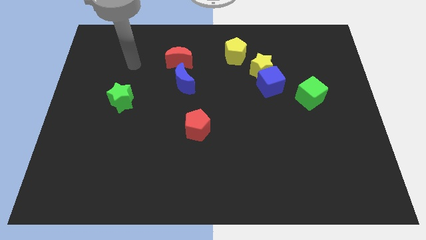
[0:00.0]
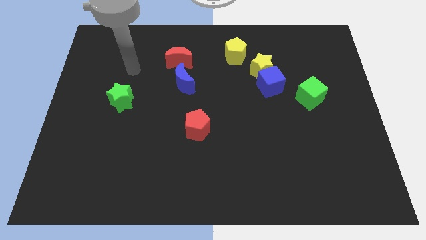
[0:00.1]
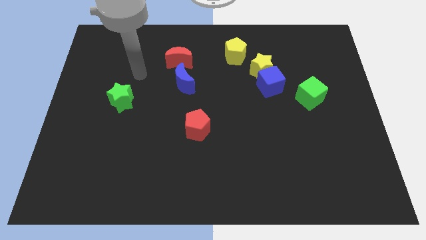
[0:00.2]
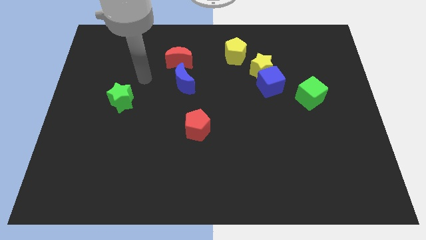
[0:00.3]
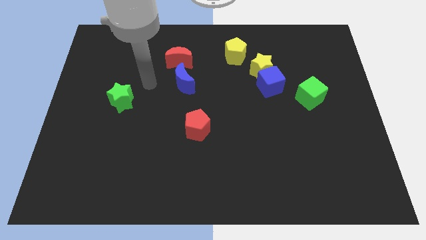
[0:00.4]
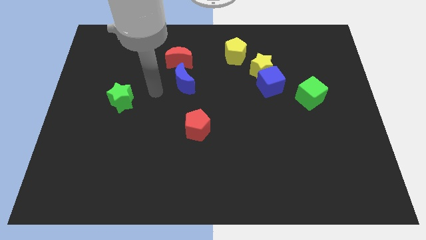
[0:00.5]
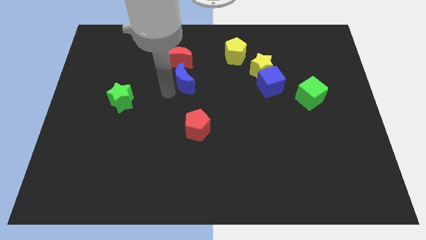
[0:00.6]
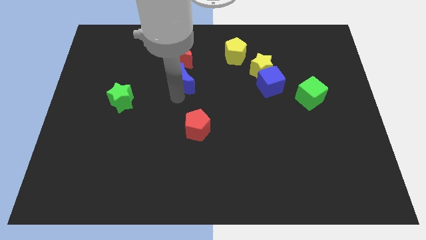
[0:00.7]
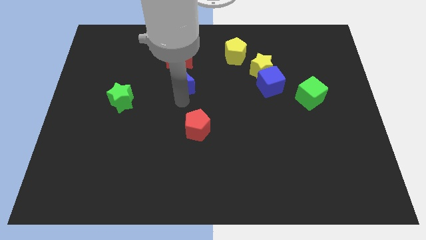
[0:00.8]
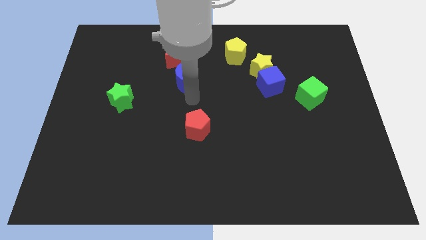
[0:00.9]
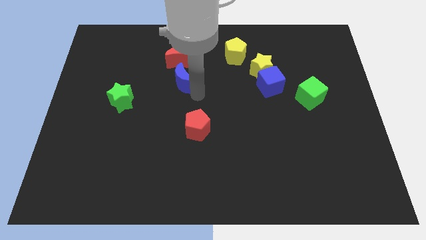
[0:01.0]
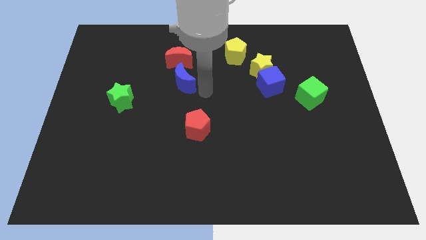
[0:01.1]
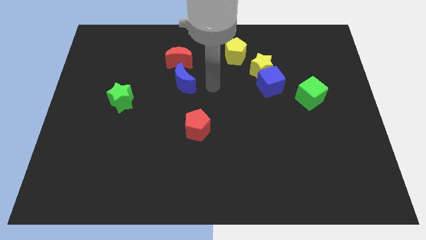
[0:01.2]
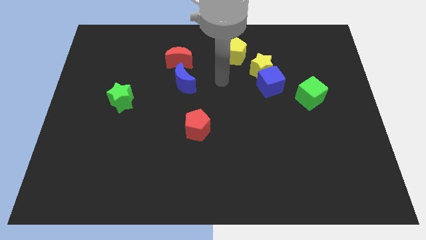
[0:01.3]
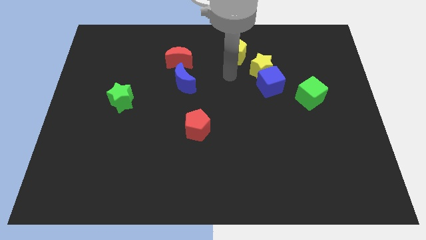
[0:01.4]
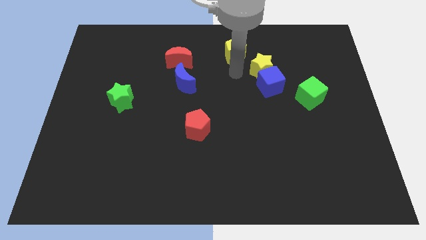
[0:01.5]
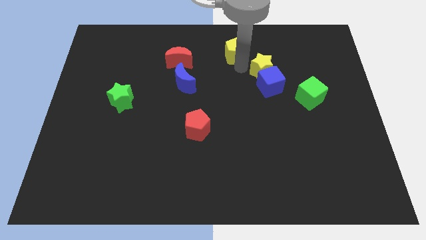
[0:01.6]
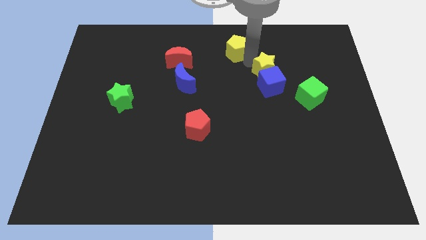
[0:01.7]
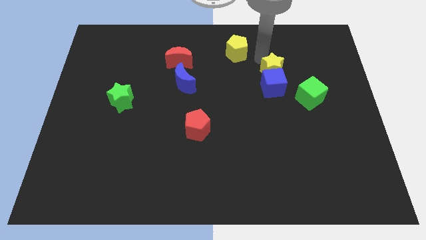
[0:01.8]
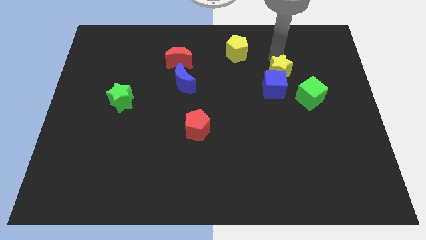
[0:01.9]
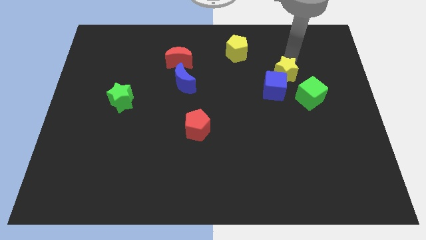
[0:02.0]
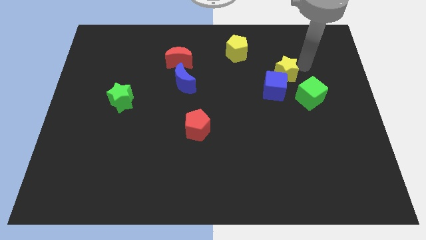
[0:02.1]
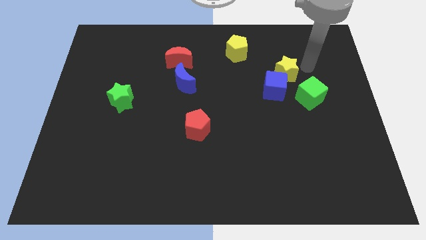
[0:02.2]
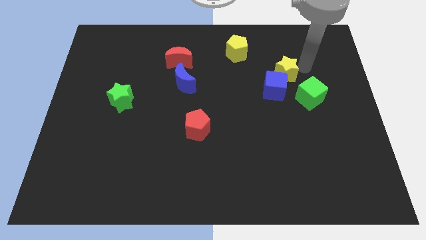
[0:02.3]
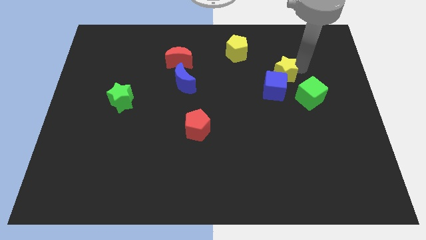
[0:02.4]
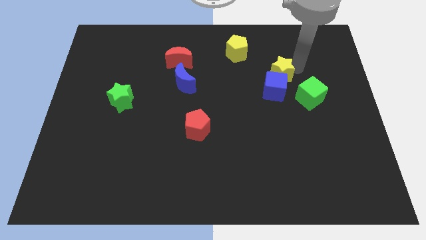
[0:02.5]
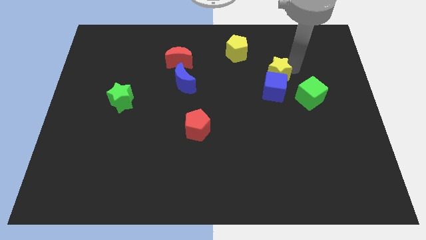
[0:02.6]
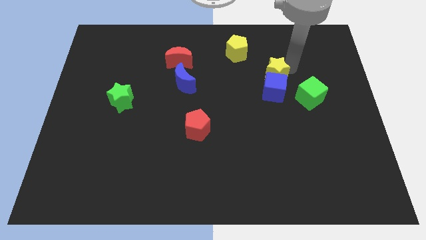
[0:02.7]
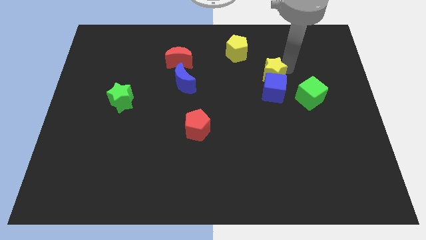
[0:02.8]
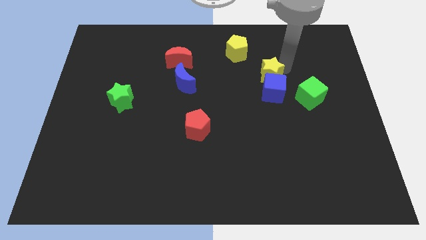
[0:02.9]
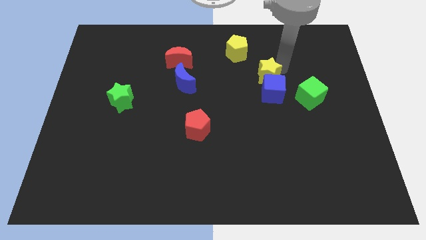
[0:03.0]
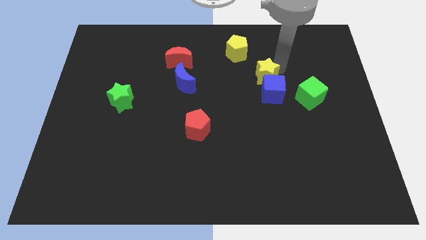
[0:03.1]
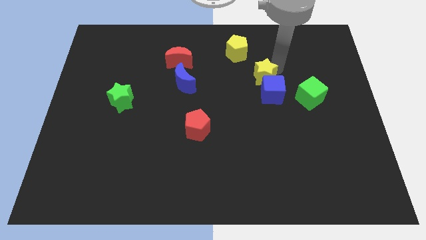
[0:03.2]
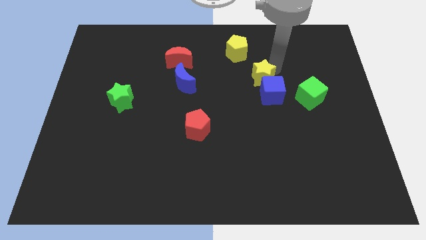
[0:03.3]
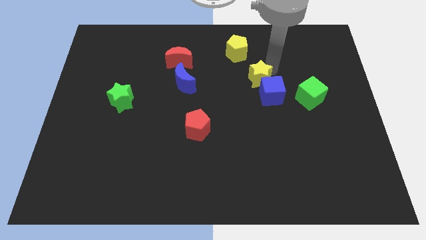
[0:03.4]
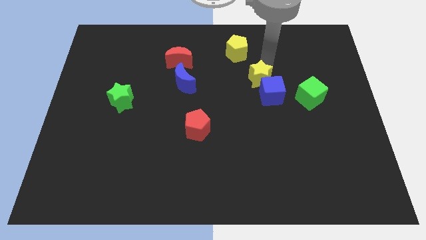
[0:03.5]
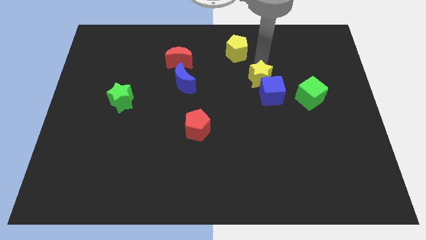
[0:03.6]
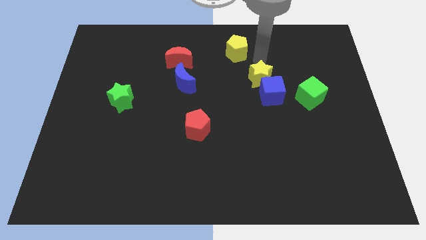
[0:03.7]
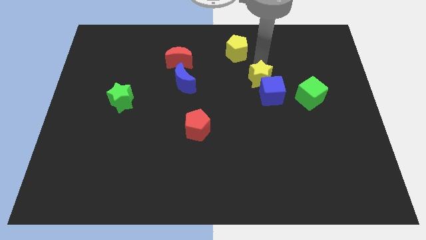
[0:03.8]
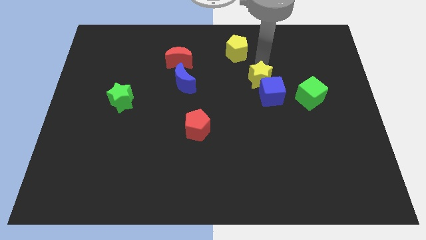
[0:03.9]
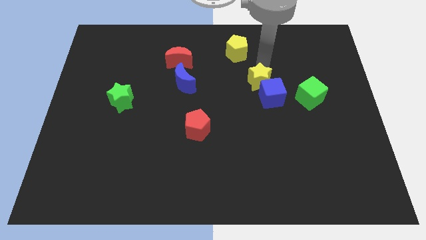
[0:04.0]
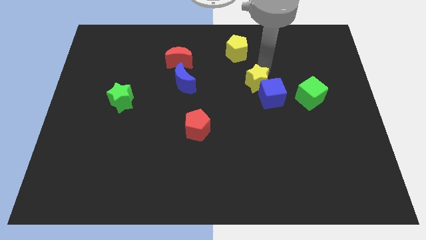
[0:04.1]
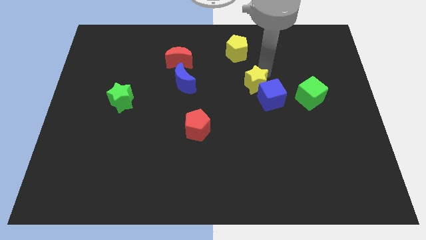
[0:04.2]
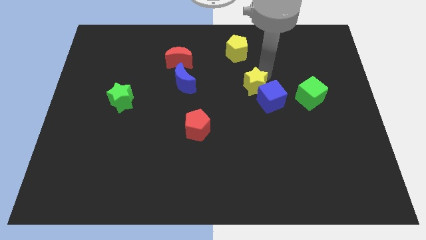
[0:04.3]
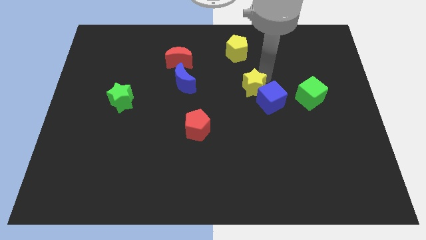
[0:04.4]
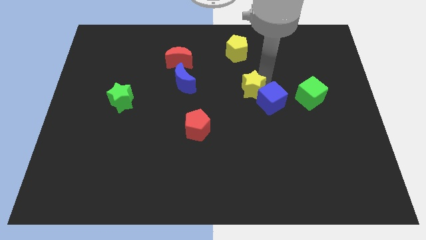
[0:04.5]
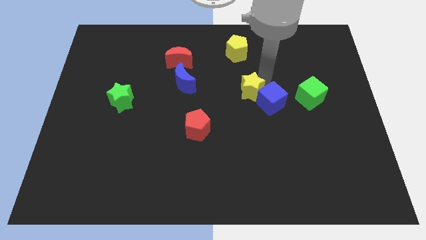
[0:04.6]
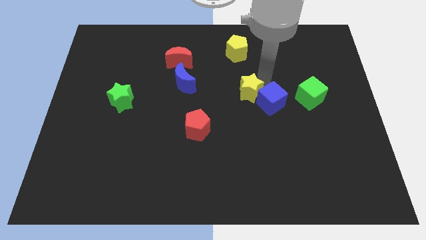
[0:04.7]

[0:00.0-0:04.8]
slide the yellow star a little downwards

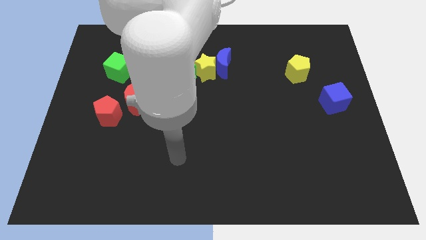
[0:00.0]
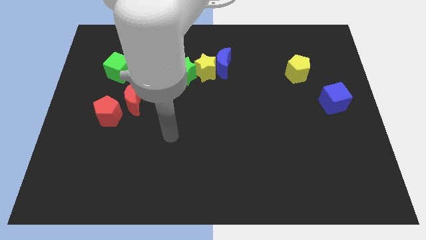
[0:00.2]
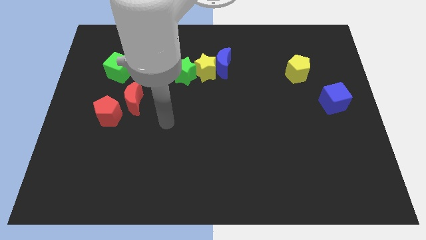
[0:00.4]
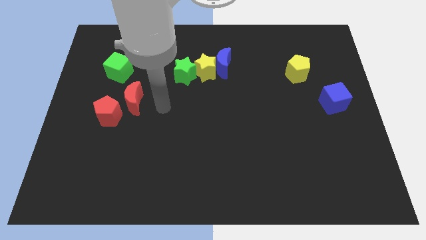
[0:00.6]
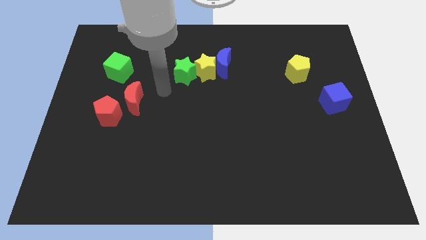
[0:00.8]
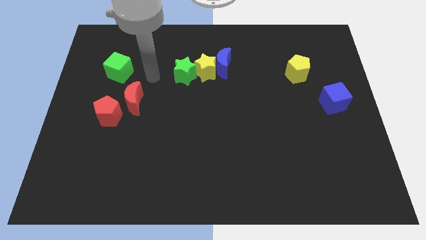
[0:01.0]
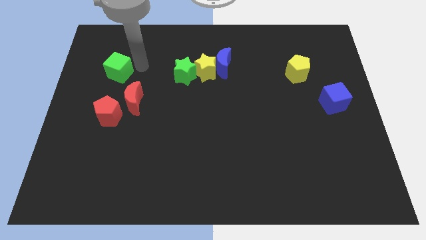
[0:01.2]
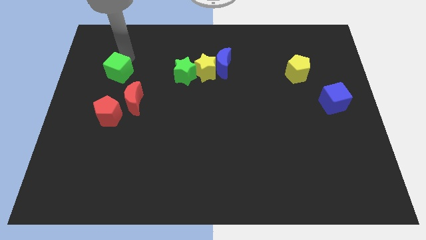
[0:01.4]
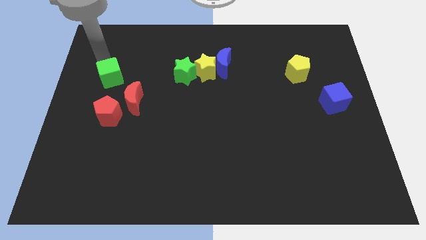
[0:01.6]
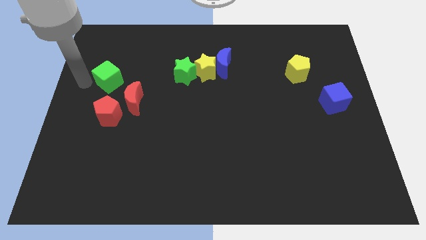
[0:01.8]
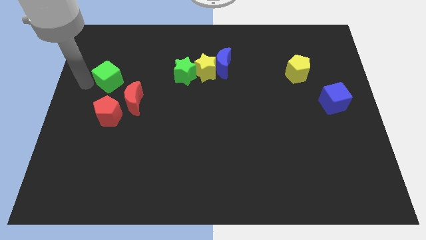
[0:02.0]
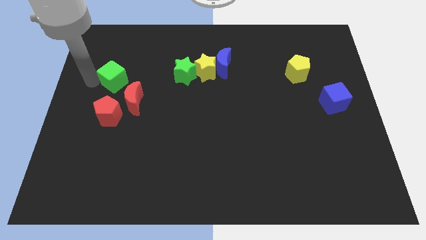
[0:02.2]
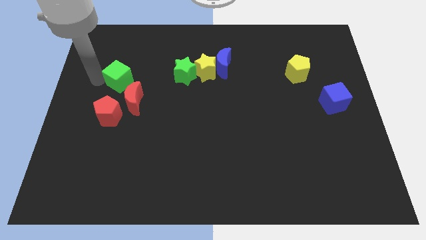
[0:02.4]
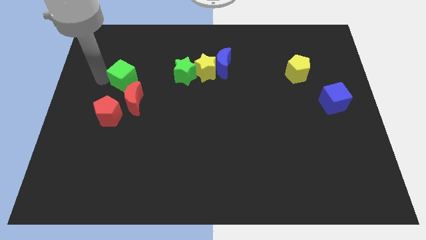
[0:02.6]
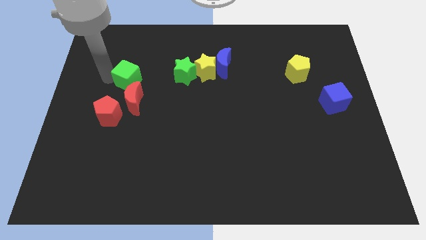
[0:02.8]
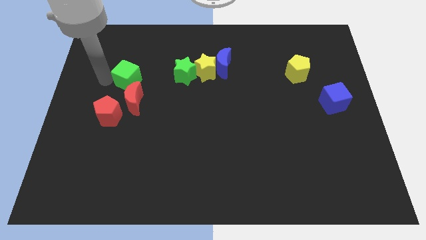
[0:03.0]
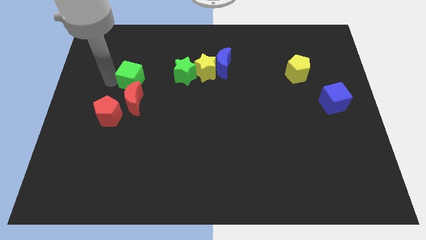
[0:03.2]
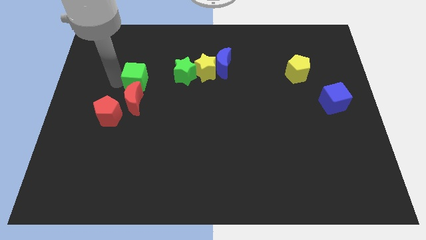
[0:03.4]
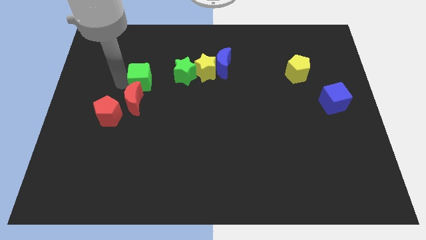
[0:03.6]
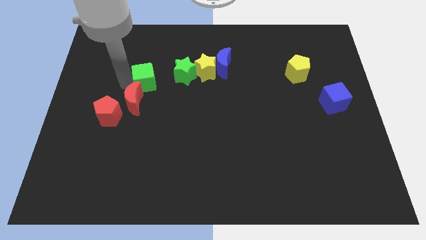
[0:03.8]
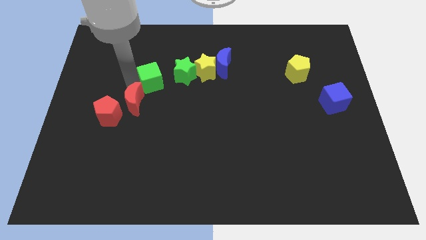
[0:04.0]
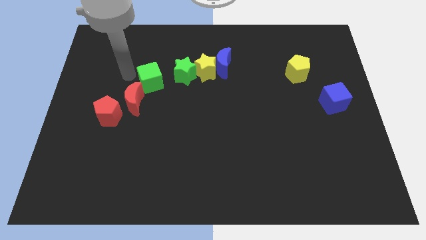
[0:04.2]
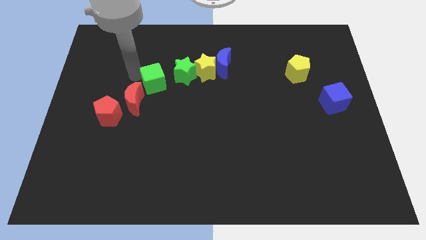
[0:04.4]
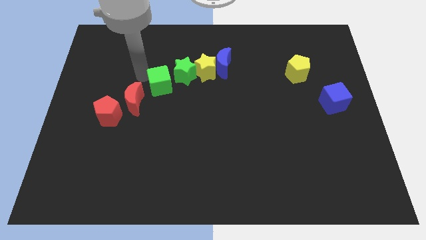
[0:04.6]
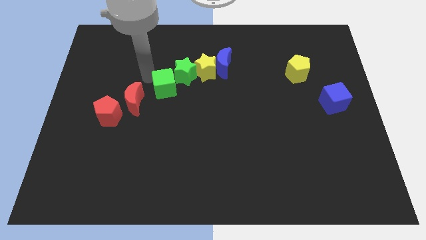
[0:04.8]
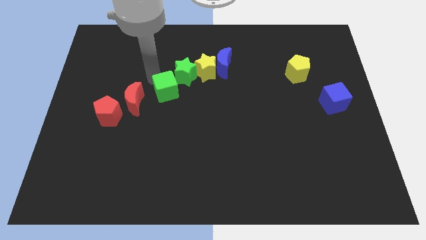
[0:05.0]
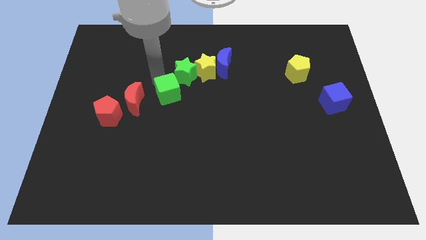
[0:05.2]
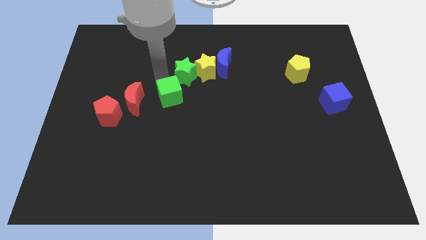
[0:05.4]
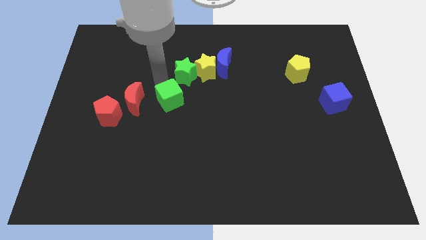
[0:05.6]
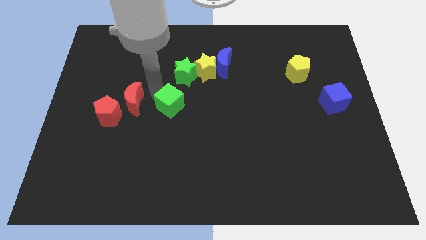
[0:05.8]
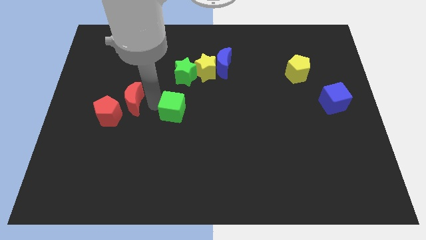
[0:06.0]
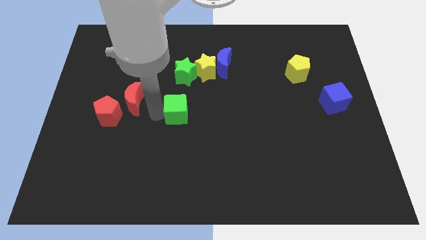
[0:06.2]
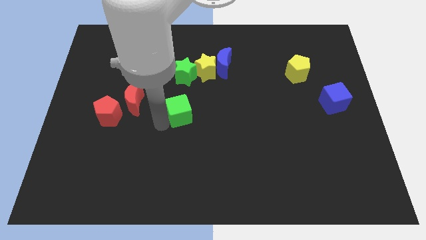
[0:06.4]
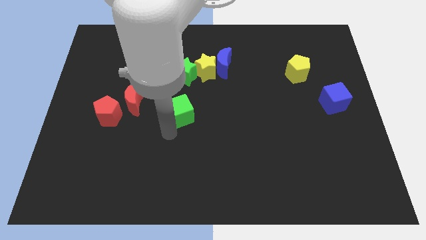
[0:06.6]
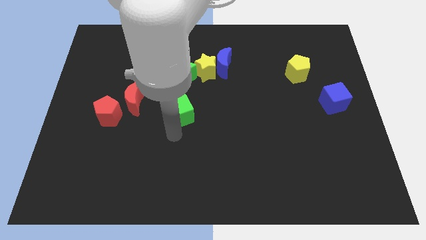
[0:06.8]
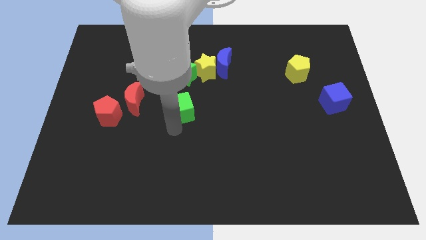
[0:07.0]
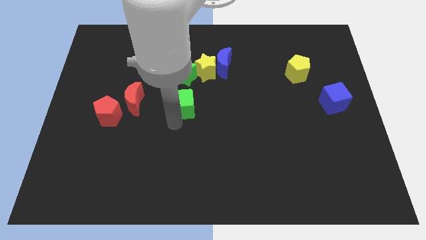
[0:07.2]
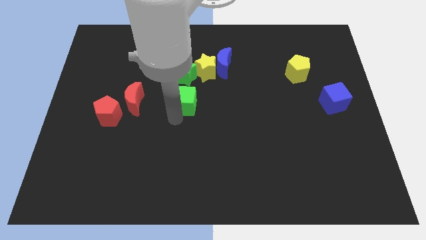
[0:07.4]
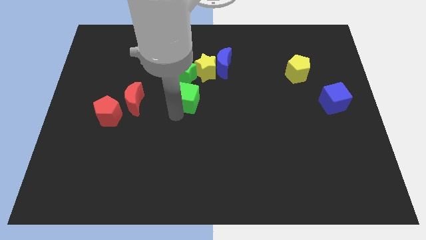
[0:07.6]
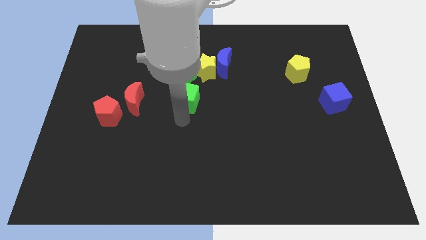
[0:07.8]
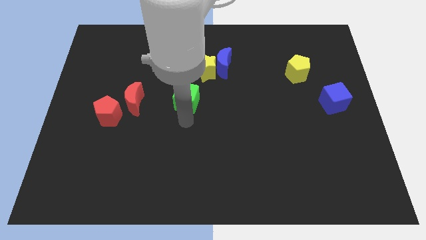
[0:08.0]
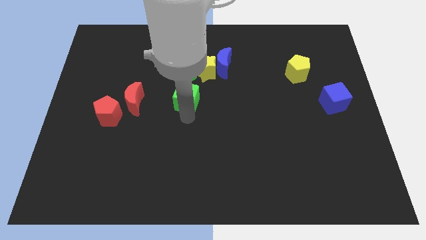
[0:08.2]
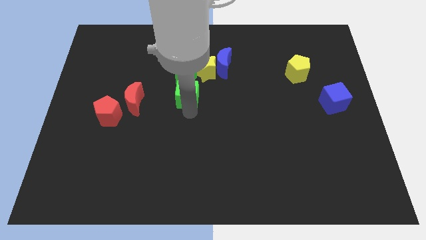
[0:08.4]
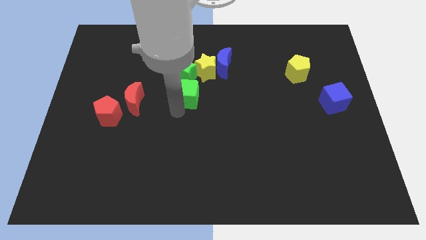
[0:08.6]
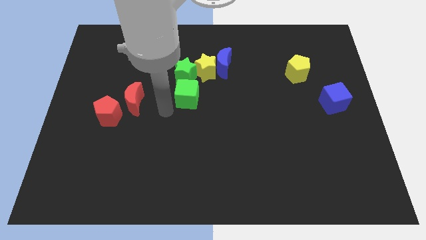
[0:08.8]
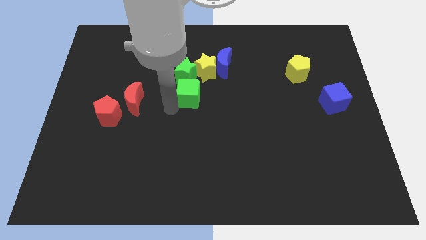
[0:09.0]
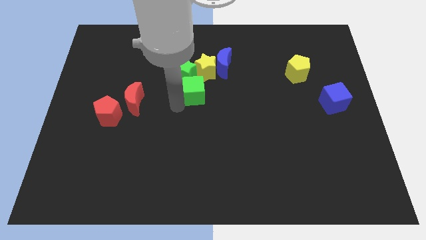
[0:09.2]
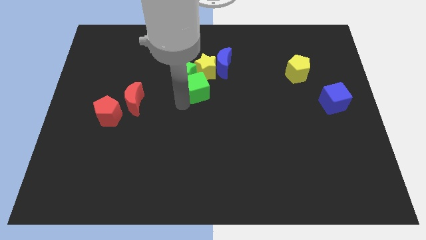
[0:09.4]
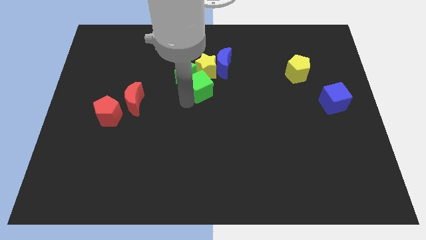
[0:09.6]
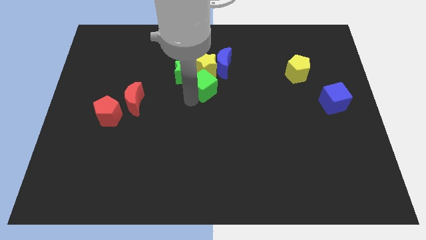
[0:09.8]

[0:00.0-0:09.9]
slide the green cube to the right
